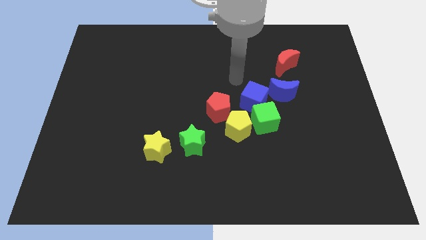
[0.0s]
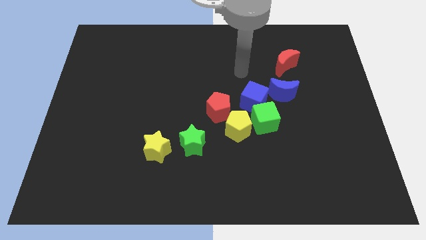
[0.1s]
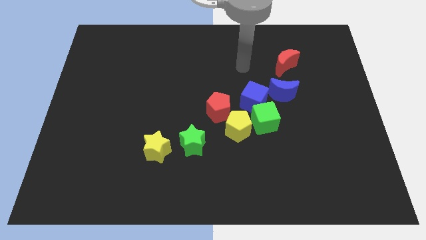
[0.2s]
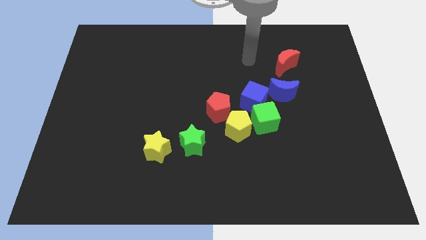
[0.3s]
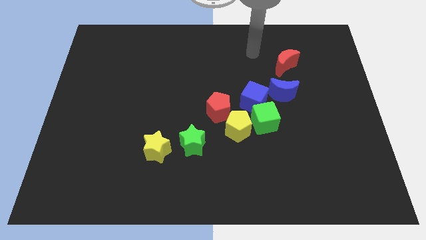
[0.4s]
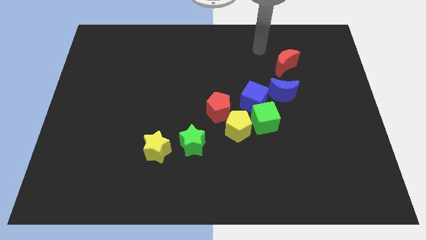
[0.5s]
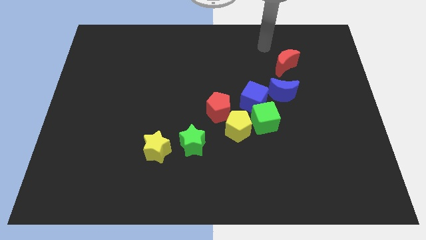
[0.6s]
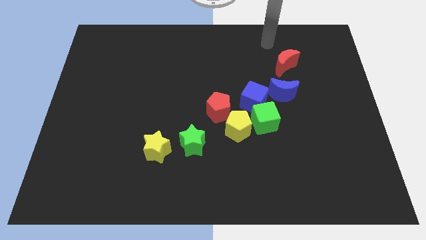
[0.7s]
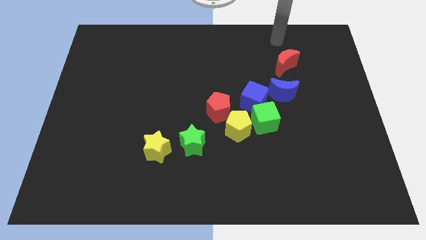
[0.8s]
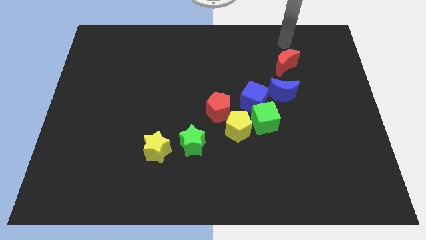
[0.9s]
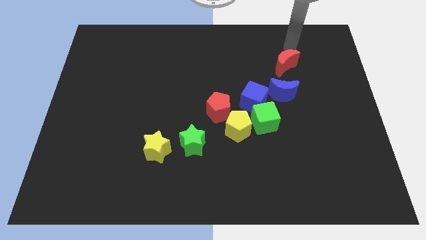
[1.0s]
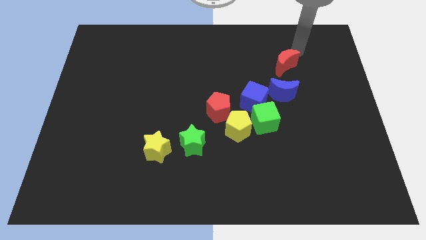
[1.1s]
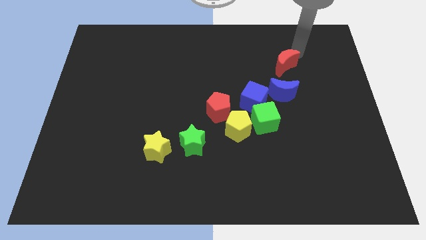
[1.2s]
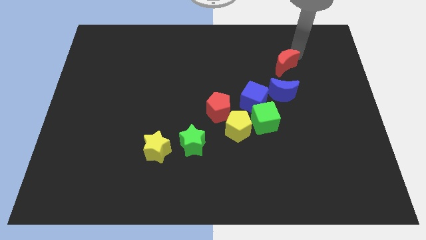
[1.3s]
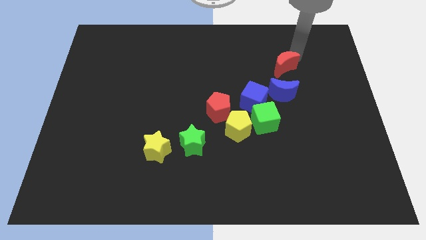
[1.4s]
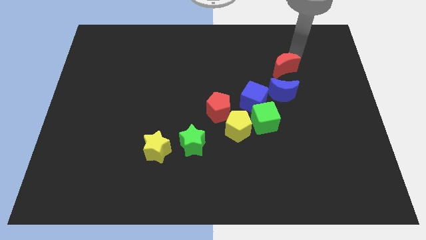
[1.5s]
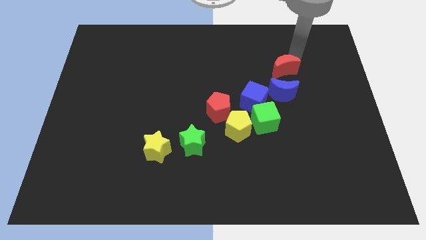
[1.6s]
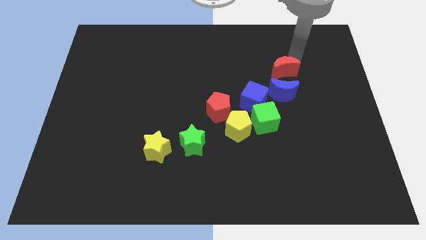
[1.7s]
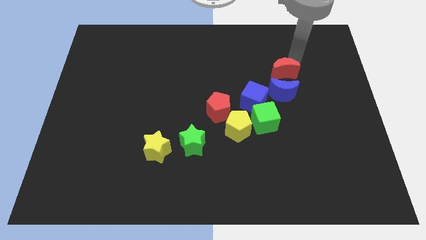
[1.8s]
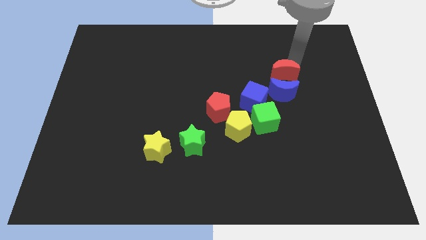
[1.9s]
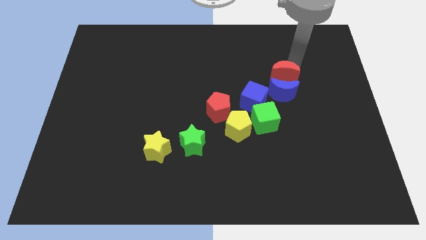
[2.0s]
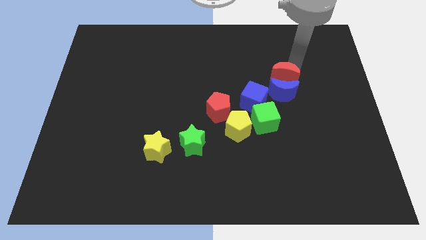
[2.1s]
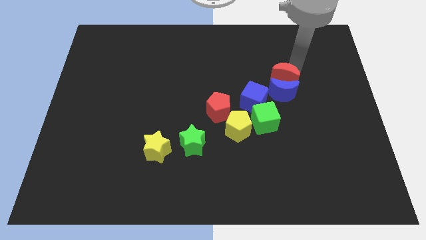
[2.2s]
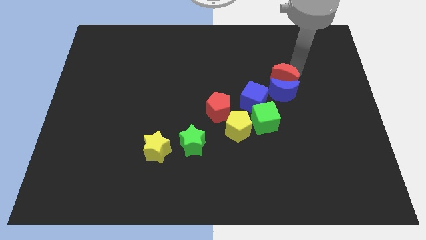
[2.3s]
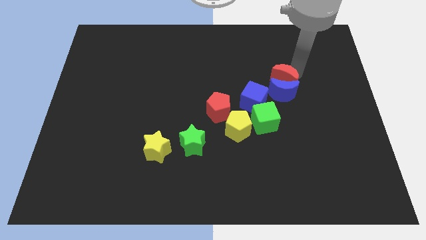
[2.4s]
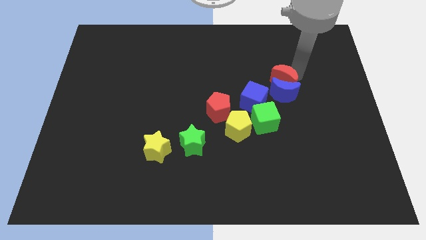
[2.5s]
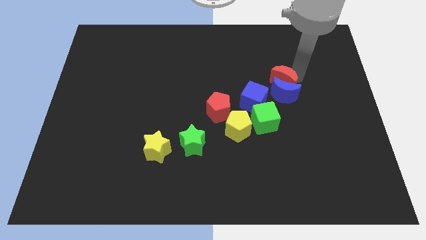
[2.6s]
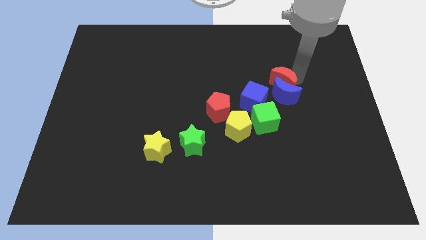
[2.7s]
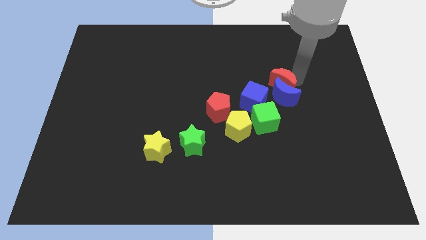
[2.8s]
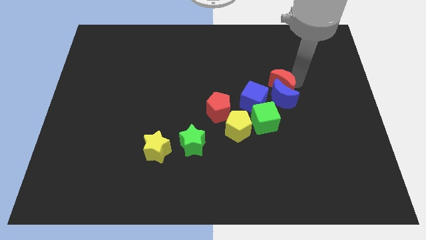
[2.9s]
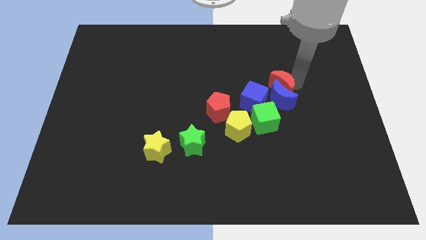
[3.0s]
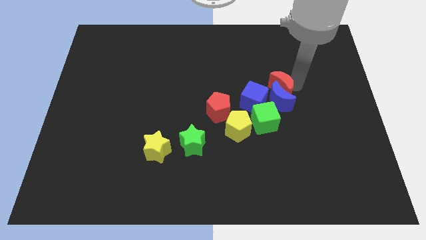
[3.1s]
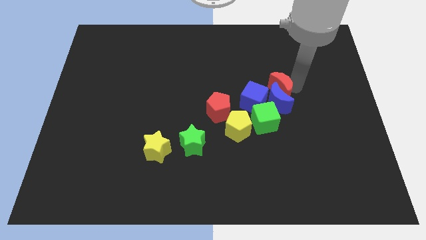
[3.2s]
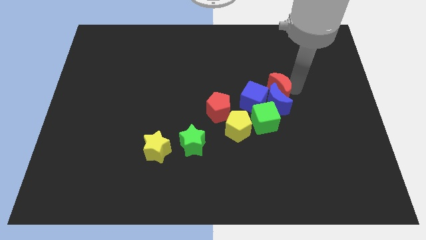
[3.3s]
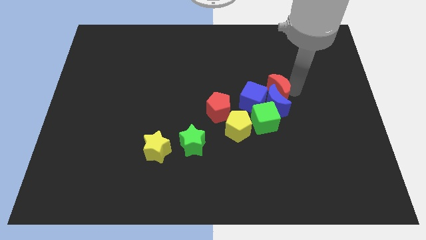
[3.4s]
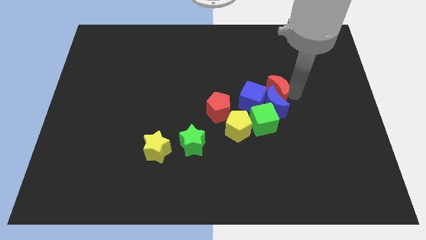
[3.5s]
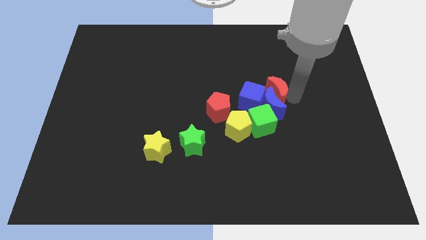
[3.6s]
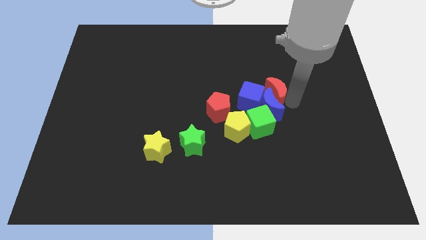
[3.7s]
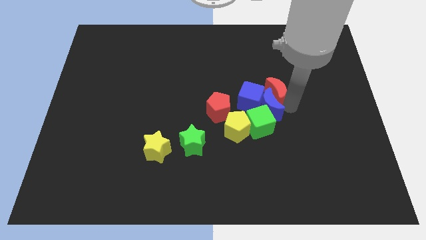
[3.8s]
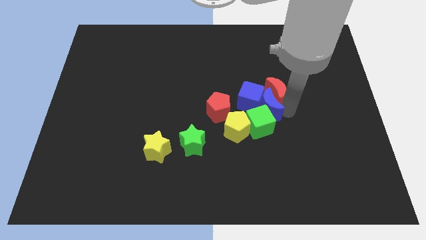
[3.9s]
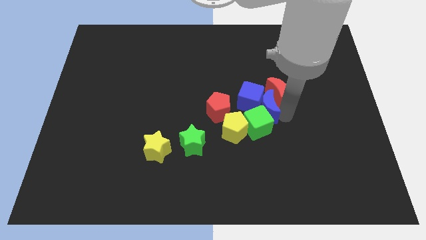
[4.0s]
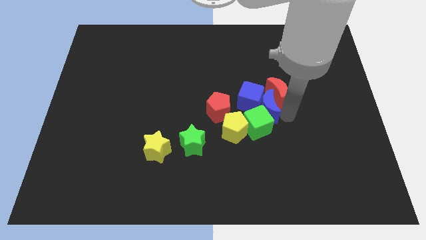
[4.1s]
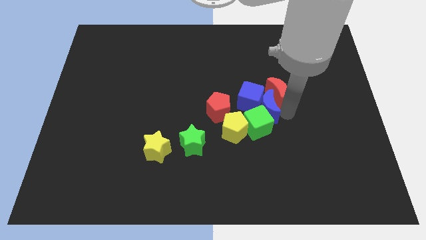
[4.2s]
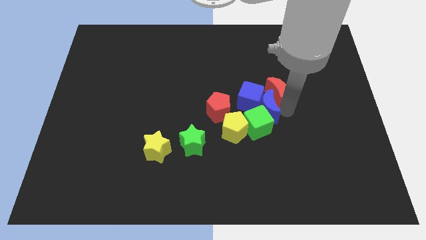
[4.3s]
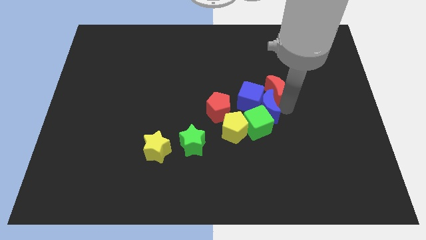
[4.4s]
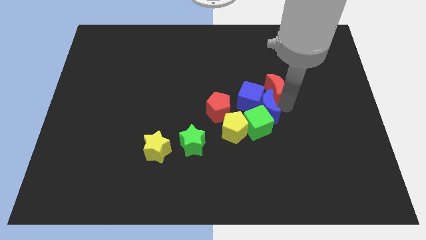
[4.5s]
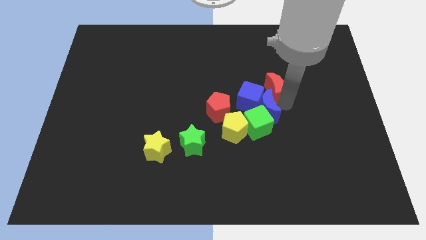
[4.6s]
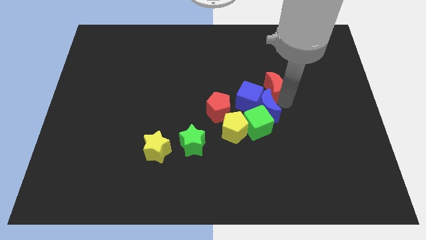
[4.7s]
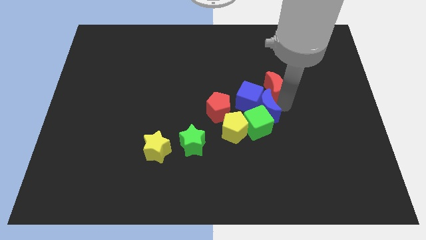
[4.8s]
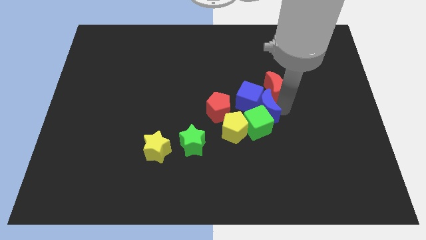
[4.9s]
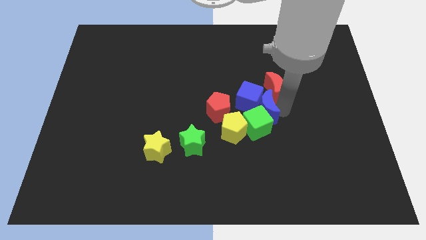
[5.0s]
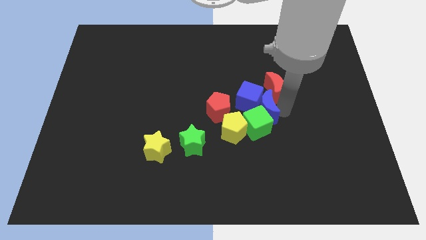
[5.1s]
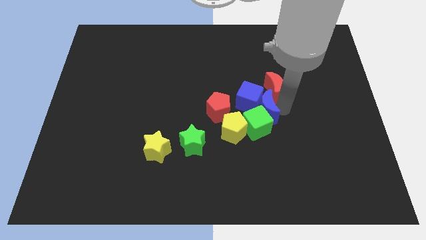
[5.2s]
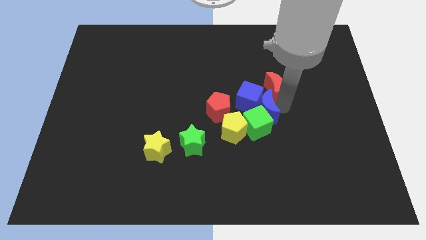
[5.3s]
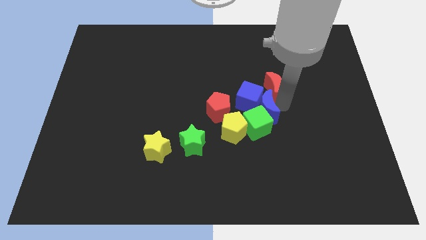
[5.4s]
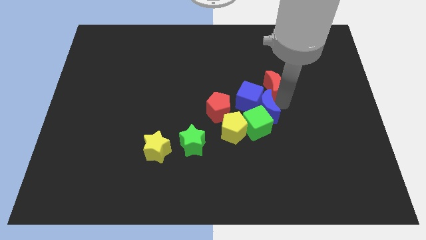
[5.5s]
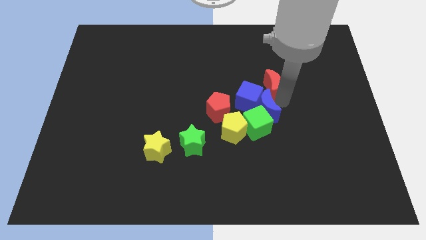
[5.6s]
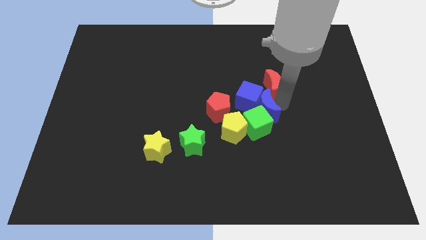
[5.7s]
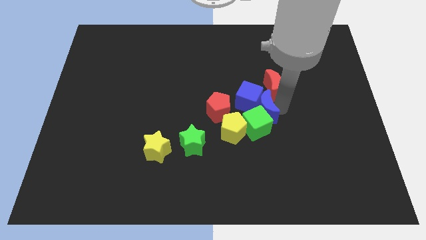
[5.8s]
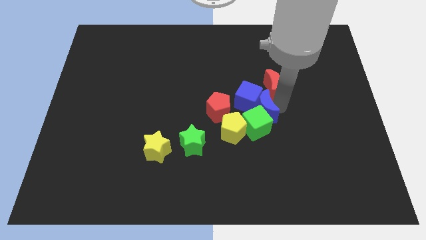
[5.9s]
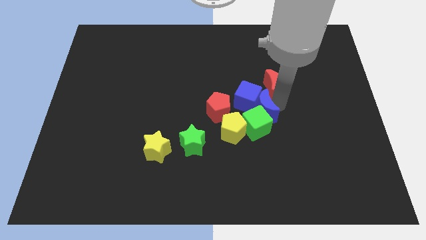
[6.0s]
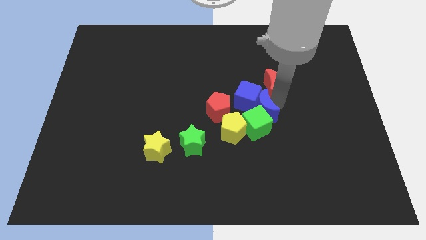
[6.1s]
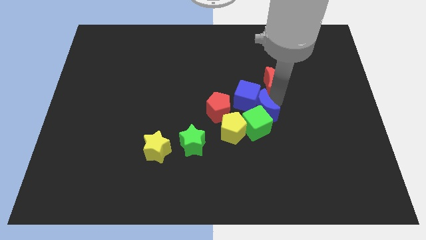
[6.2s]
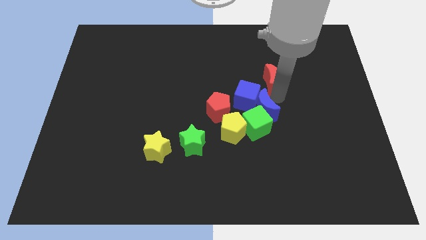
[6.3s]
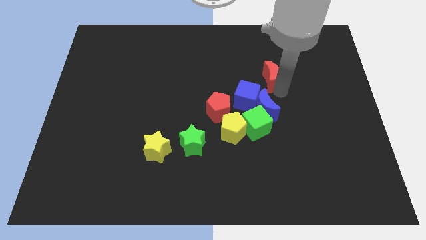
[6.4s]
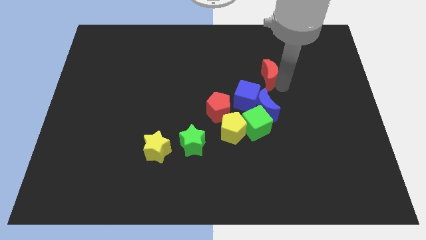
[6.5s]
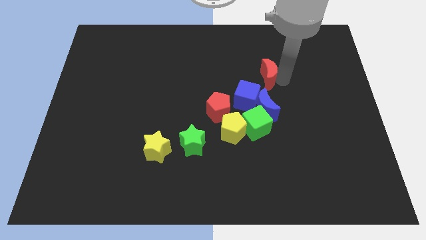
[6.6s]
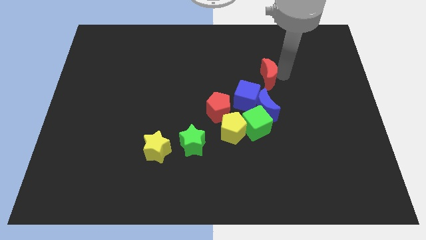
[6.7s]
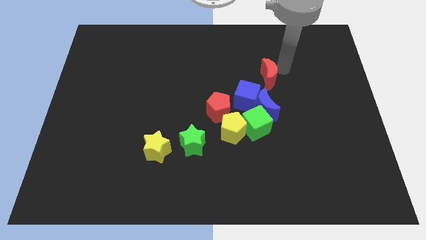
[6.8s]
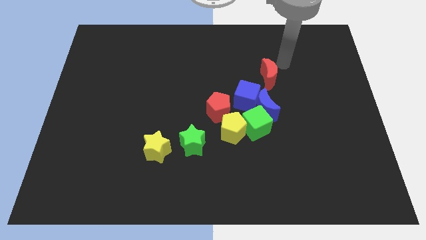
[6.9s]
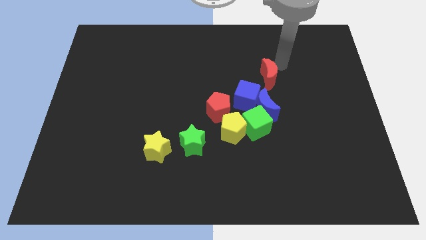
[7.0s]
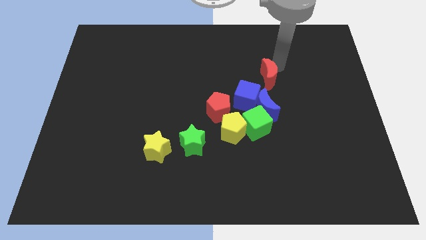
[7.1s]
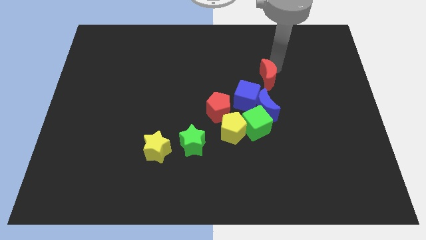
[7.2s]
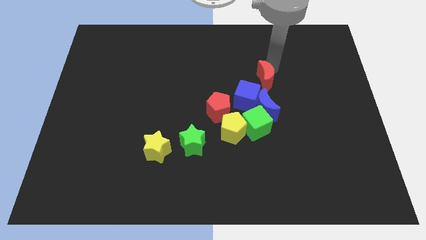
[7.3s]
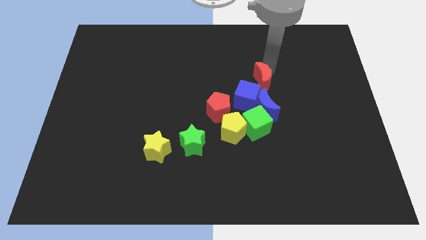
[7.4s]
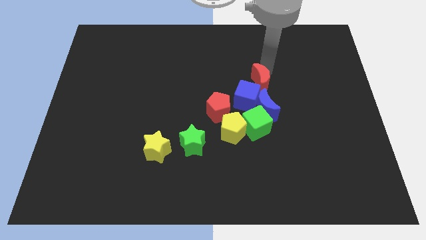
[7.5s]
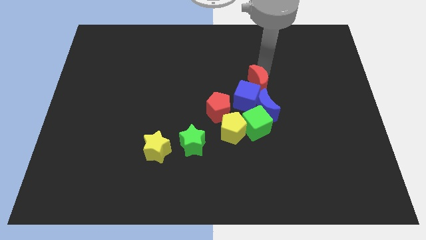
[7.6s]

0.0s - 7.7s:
move the red moon towards the blue cube
